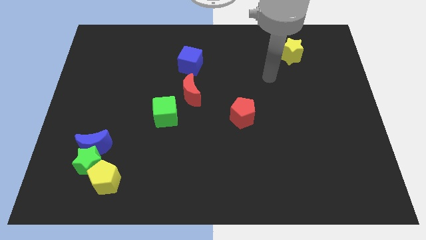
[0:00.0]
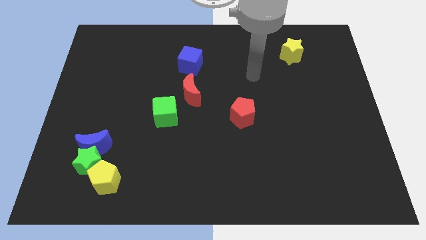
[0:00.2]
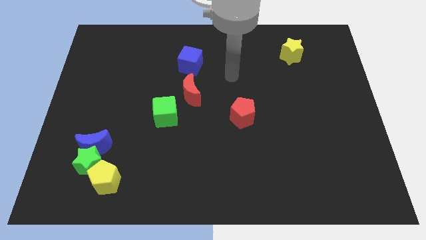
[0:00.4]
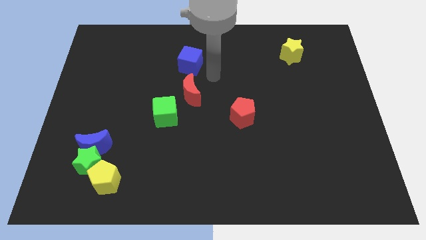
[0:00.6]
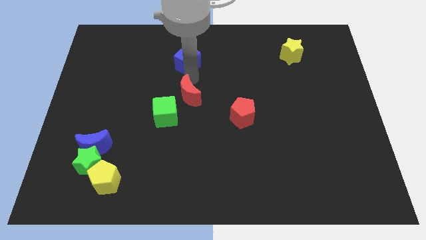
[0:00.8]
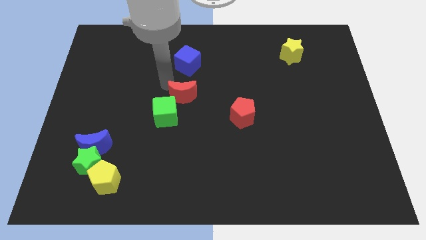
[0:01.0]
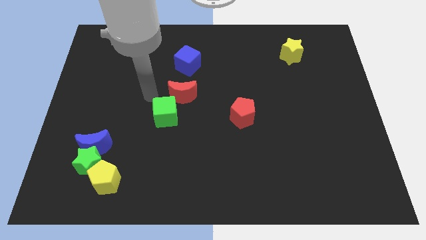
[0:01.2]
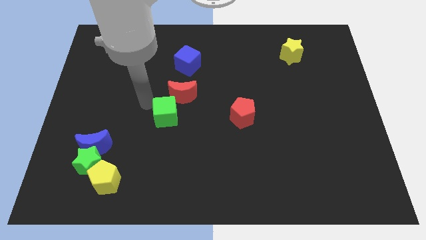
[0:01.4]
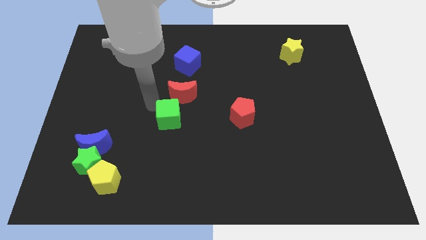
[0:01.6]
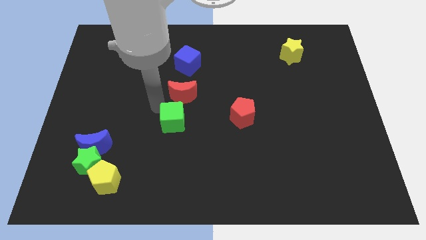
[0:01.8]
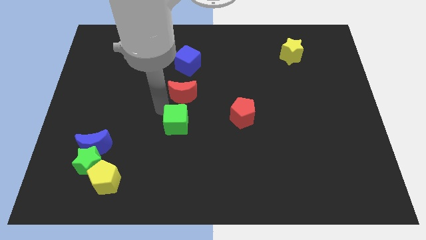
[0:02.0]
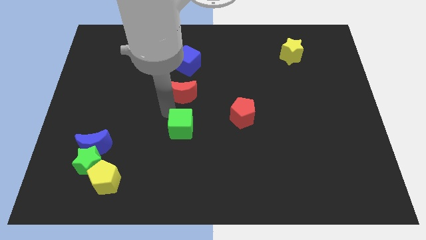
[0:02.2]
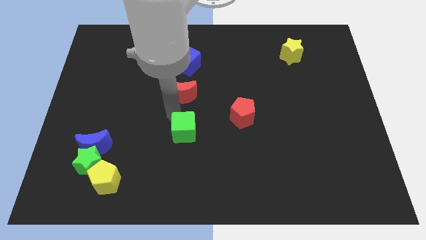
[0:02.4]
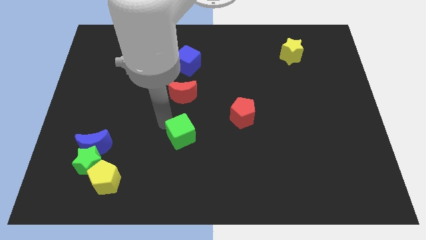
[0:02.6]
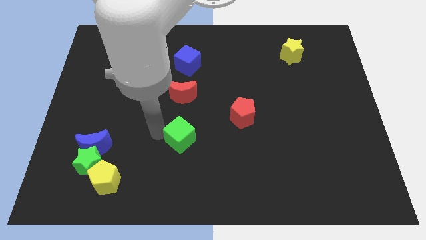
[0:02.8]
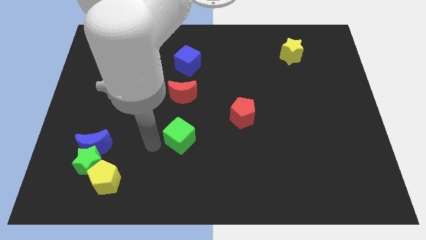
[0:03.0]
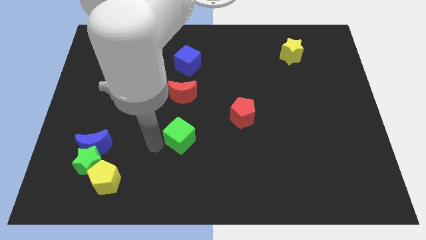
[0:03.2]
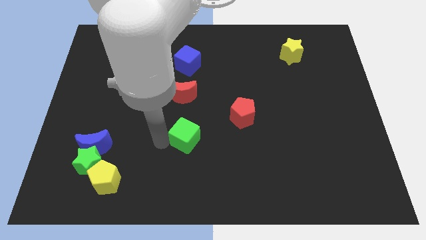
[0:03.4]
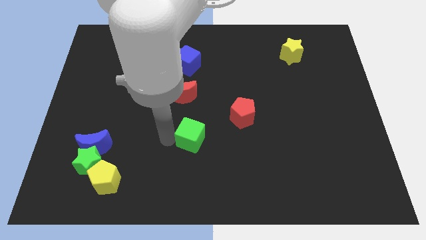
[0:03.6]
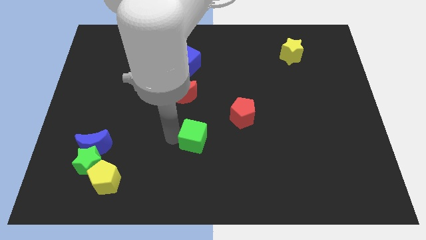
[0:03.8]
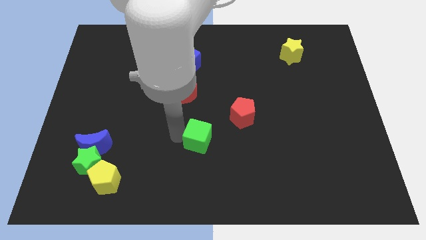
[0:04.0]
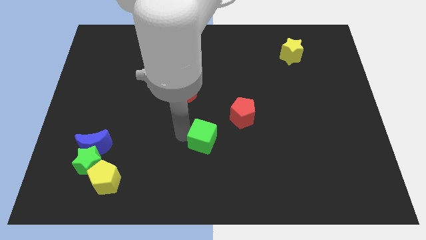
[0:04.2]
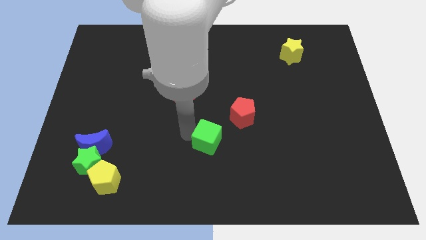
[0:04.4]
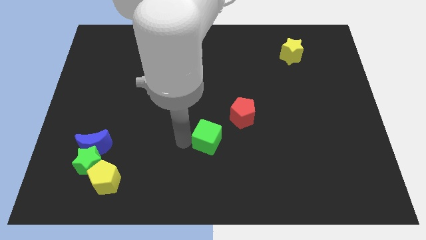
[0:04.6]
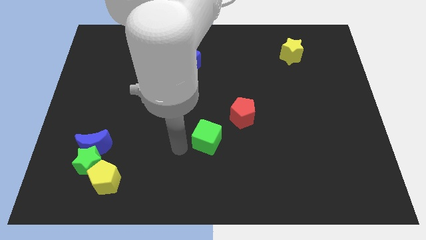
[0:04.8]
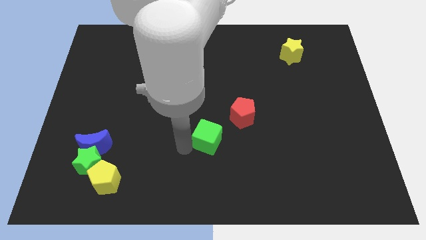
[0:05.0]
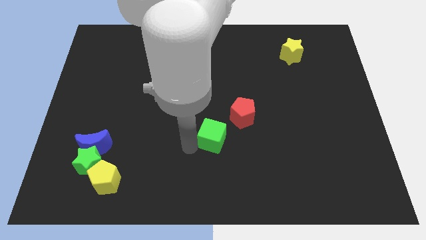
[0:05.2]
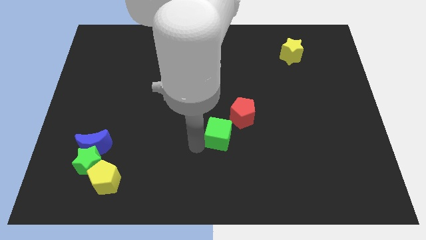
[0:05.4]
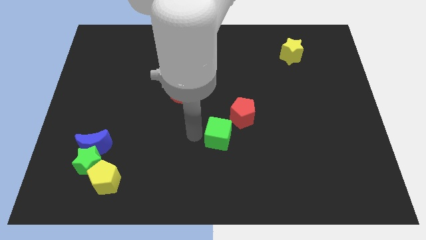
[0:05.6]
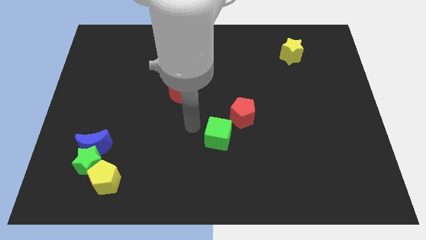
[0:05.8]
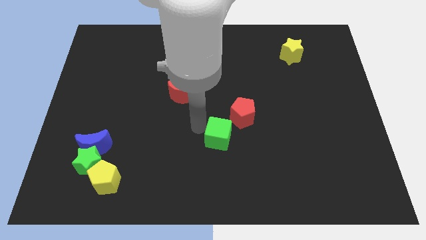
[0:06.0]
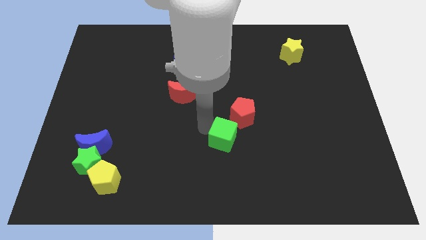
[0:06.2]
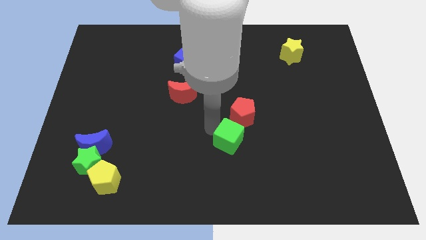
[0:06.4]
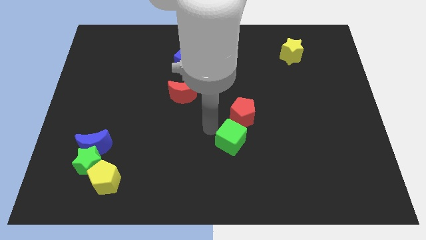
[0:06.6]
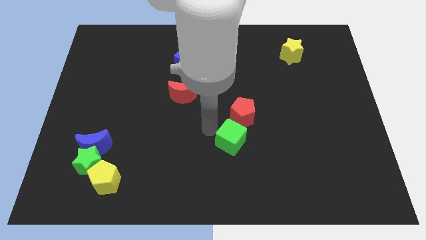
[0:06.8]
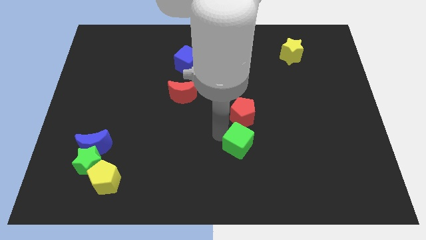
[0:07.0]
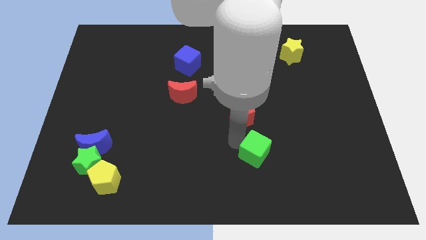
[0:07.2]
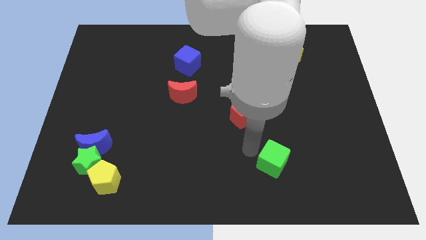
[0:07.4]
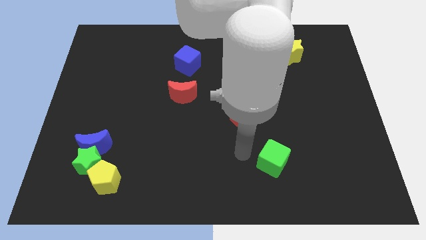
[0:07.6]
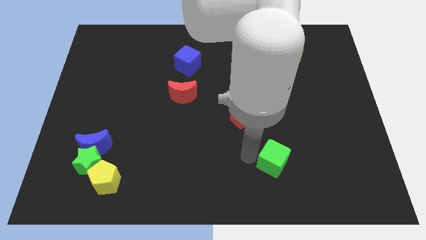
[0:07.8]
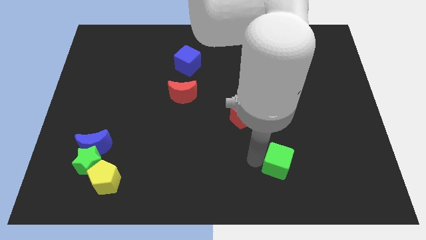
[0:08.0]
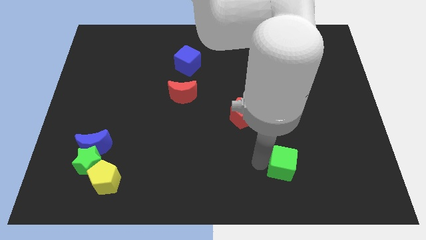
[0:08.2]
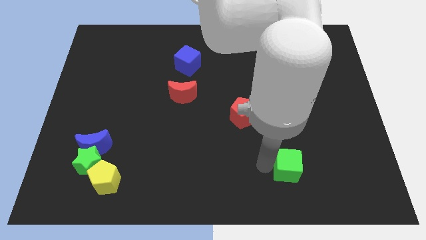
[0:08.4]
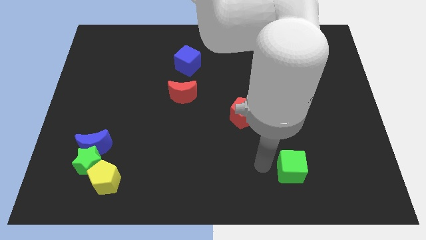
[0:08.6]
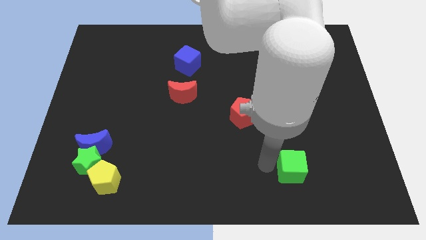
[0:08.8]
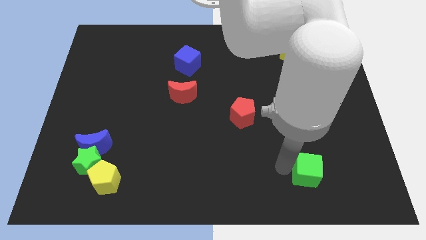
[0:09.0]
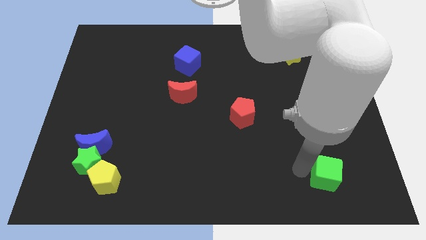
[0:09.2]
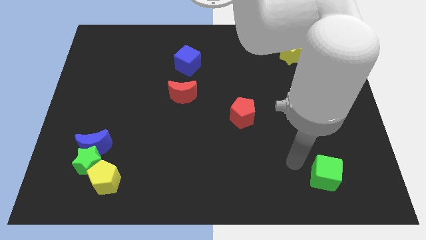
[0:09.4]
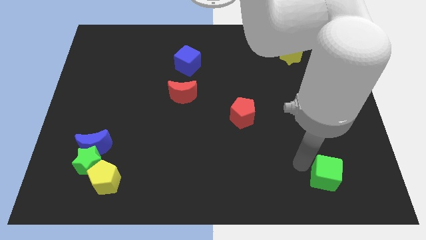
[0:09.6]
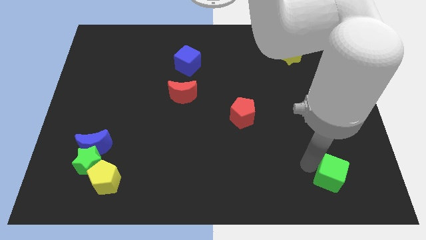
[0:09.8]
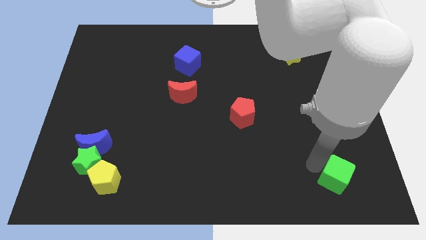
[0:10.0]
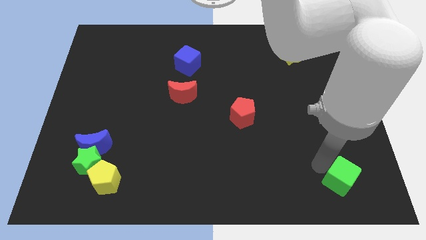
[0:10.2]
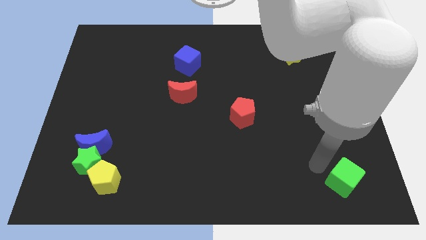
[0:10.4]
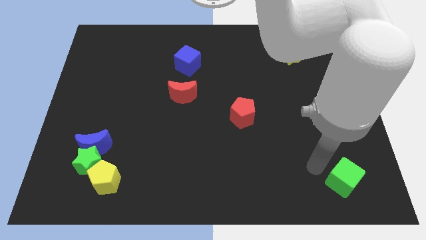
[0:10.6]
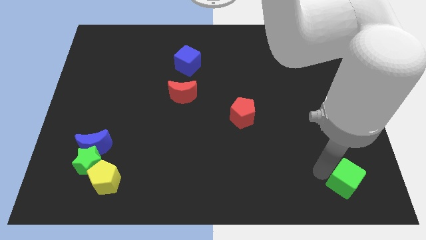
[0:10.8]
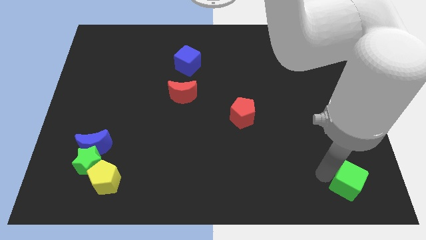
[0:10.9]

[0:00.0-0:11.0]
move the green cube to the bottom right

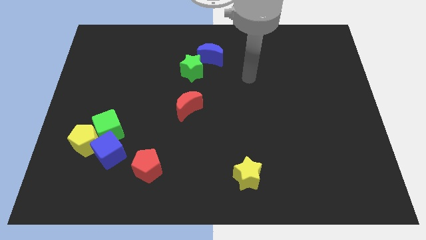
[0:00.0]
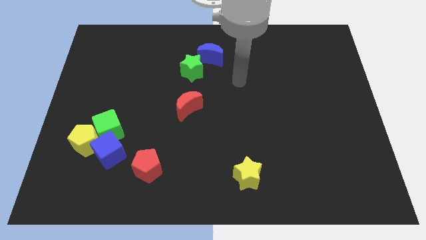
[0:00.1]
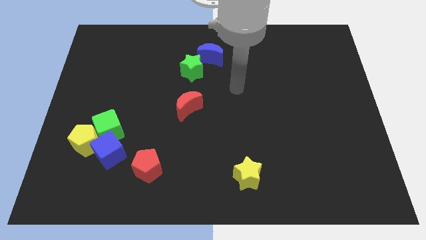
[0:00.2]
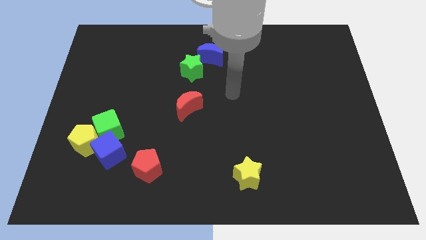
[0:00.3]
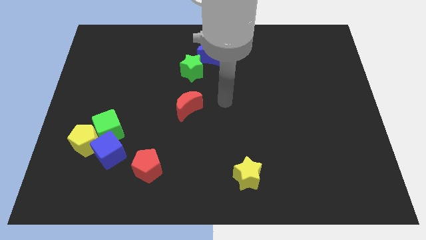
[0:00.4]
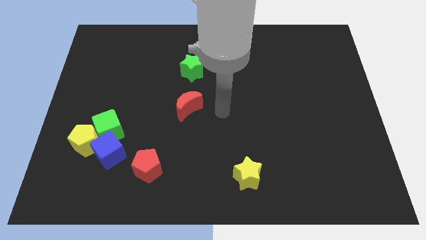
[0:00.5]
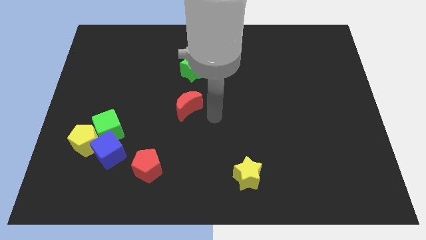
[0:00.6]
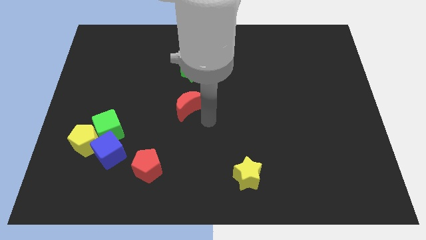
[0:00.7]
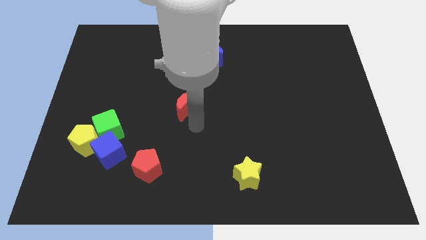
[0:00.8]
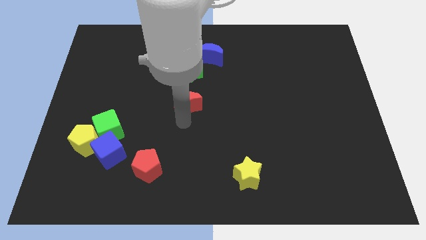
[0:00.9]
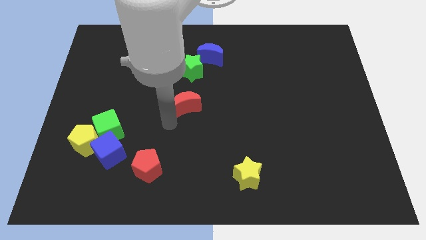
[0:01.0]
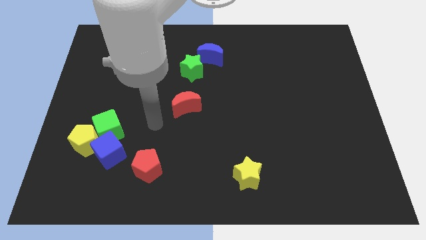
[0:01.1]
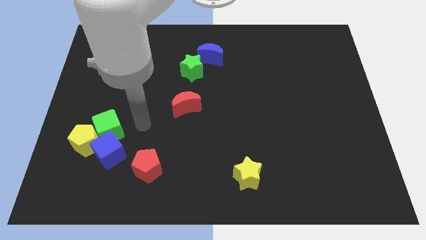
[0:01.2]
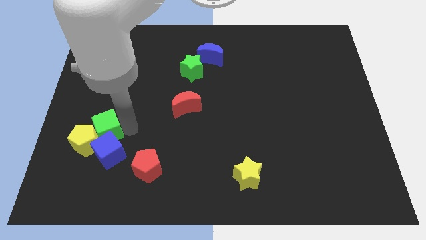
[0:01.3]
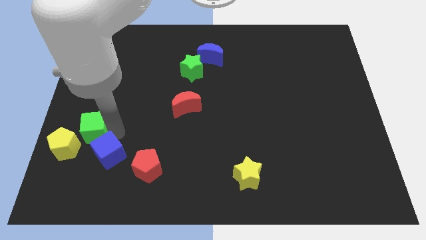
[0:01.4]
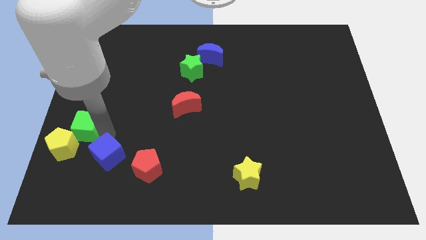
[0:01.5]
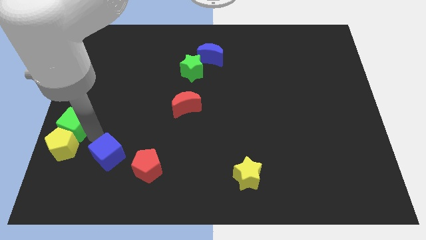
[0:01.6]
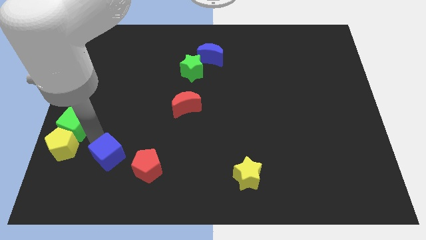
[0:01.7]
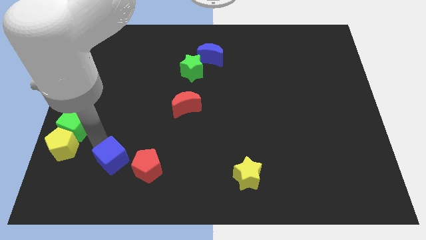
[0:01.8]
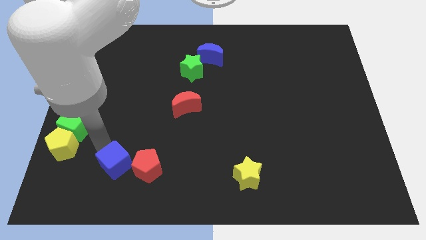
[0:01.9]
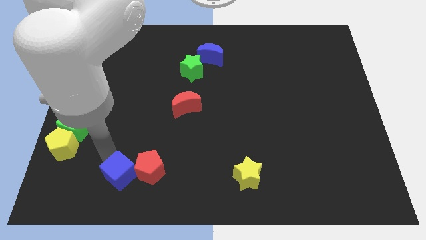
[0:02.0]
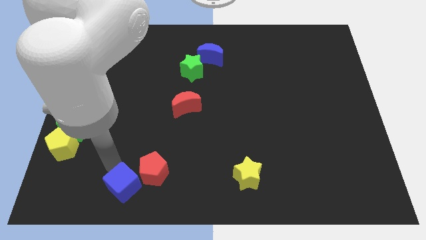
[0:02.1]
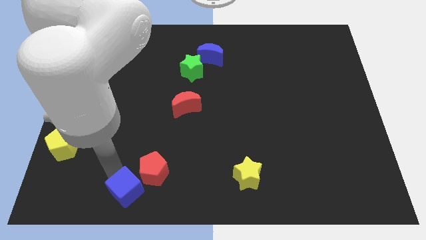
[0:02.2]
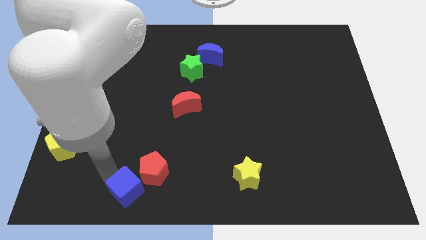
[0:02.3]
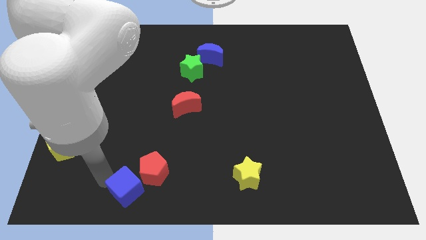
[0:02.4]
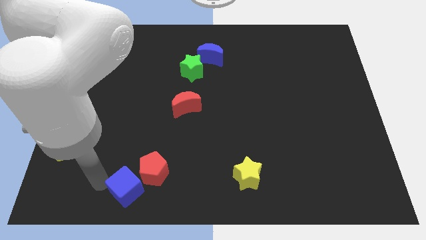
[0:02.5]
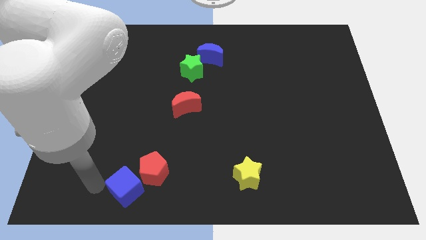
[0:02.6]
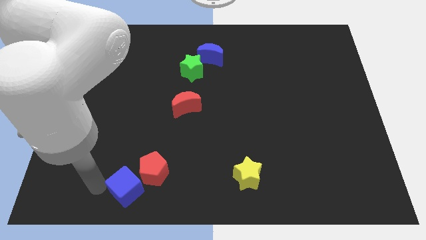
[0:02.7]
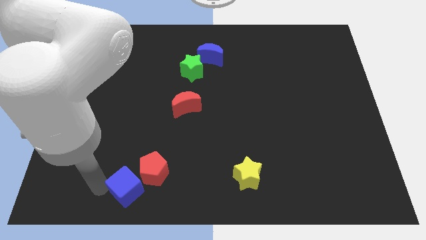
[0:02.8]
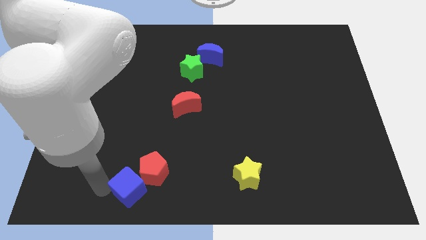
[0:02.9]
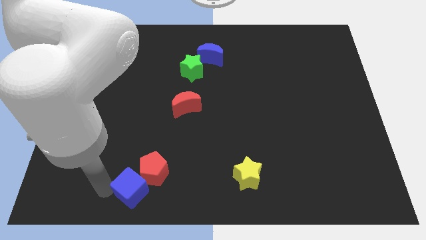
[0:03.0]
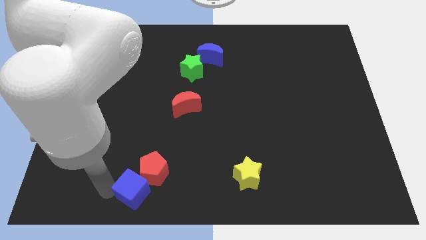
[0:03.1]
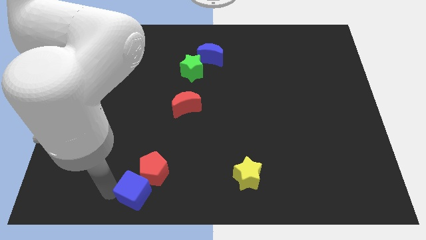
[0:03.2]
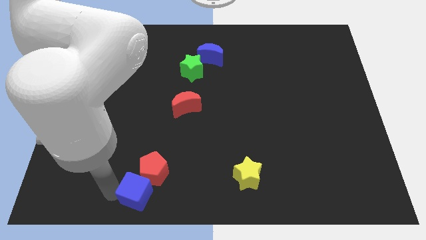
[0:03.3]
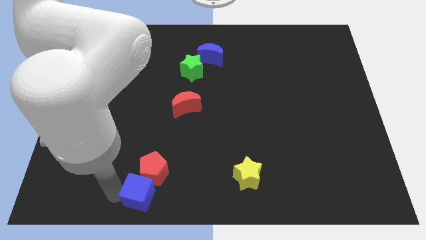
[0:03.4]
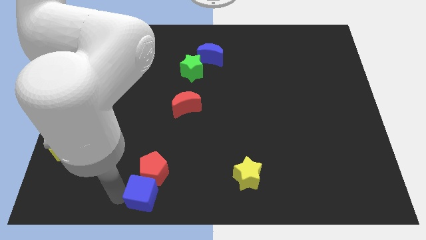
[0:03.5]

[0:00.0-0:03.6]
put the blue cube to the bottom side
